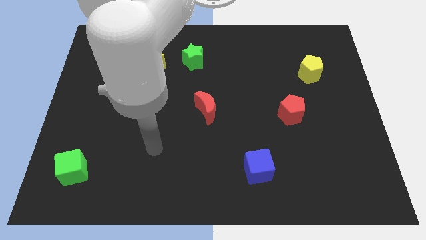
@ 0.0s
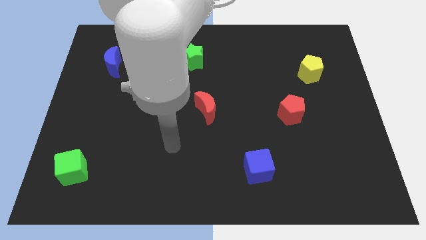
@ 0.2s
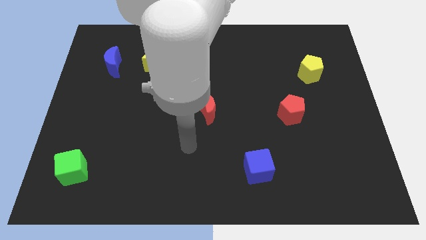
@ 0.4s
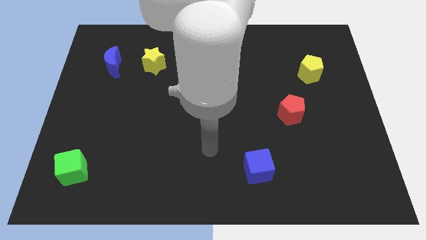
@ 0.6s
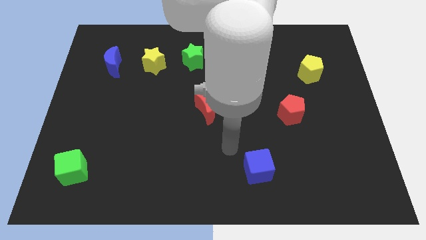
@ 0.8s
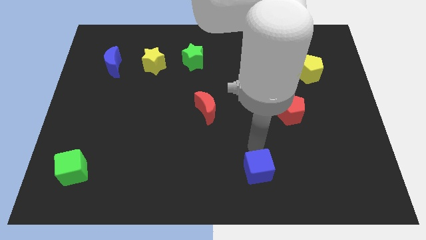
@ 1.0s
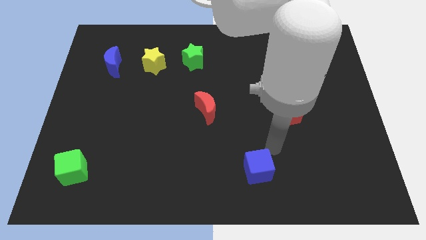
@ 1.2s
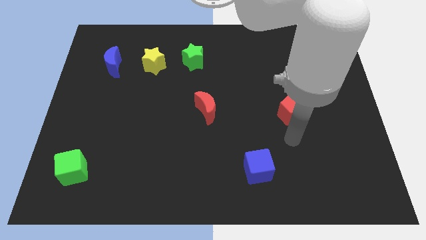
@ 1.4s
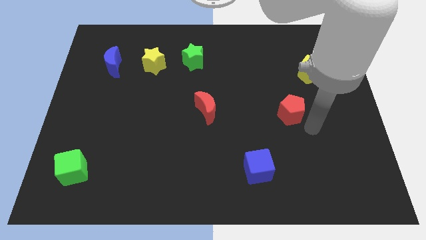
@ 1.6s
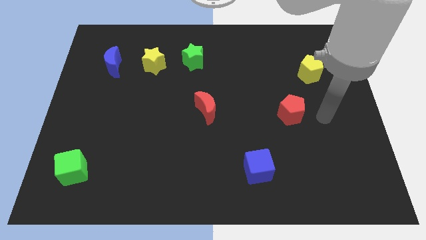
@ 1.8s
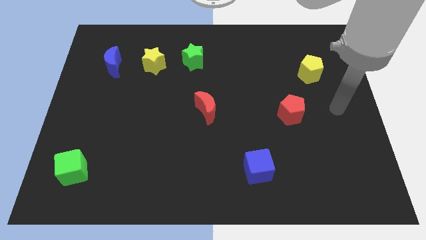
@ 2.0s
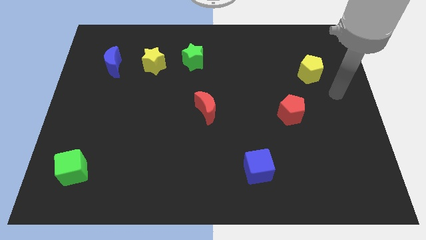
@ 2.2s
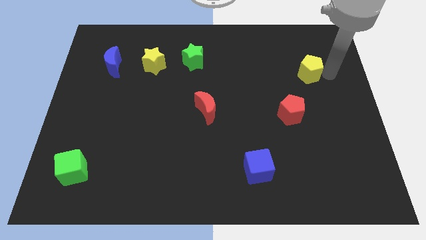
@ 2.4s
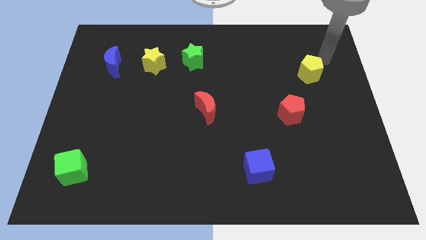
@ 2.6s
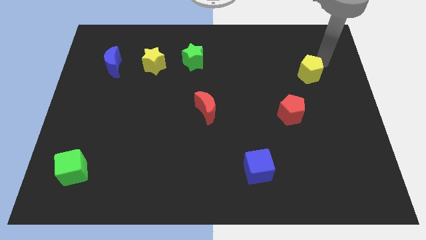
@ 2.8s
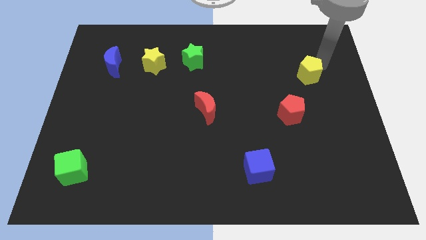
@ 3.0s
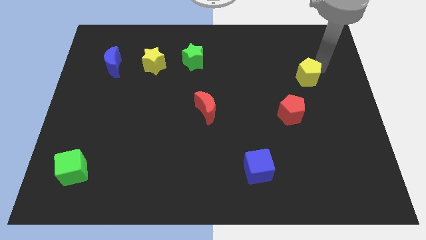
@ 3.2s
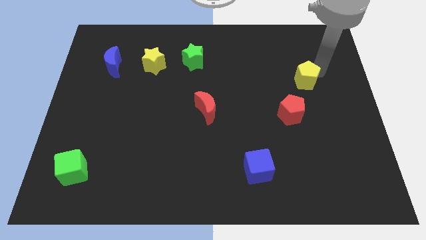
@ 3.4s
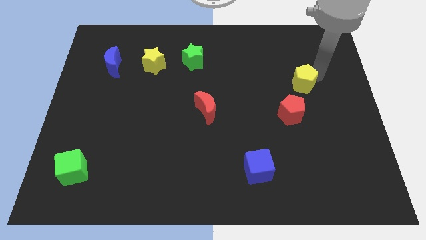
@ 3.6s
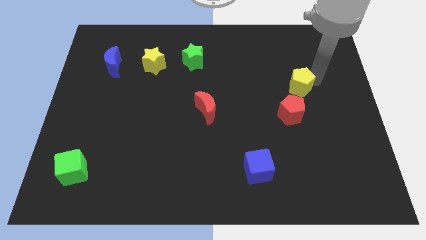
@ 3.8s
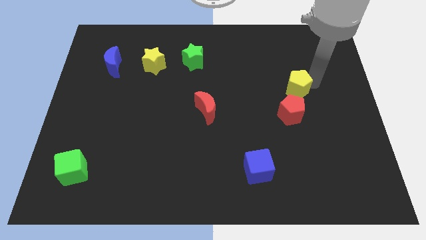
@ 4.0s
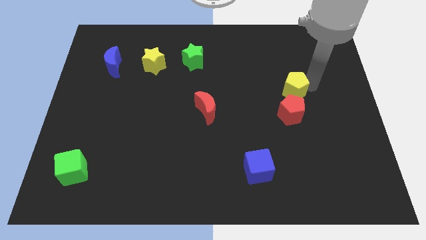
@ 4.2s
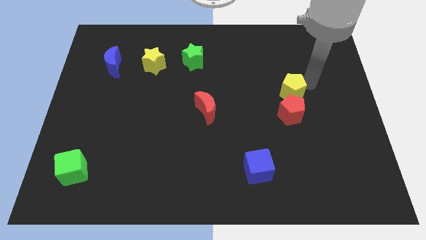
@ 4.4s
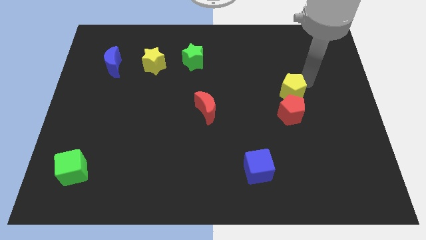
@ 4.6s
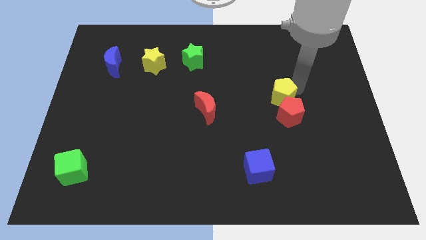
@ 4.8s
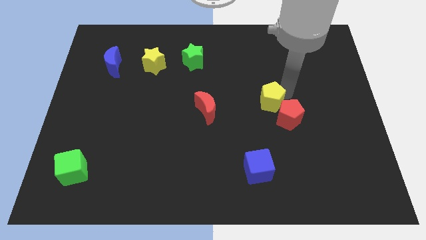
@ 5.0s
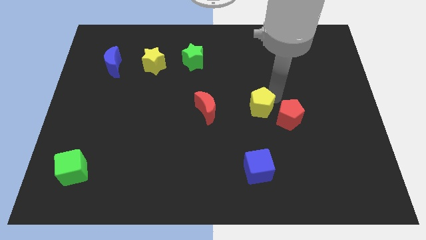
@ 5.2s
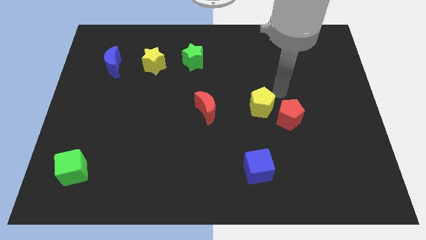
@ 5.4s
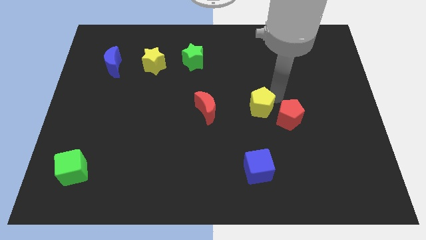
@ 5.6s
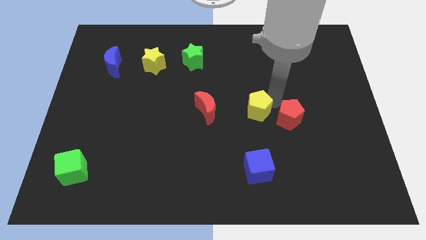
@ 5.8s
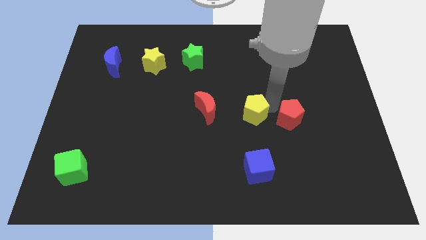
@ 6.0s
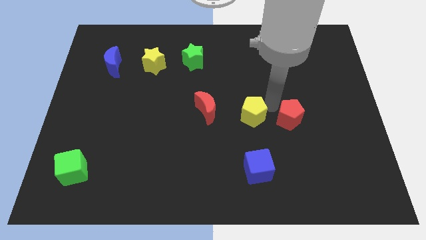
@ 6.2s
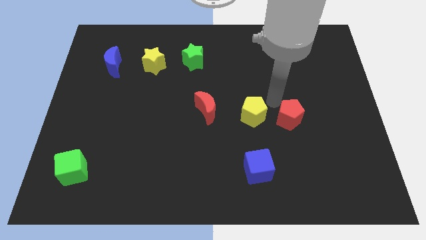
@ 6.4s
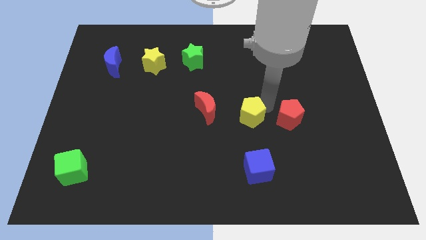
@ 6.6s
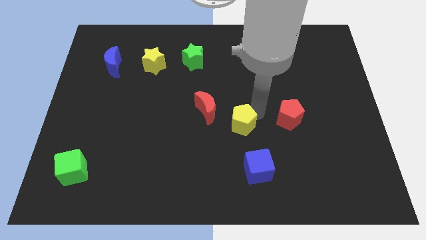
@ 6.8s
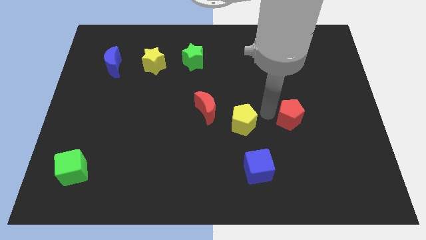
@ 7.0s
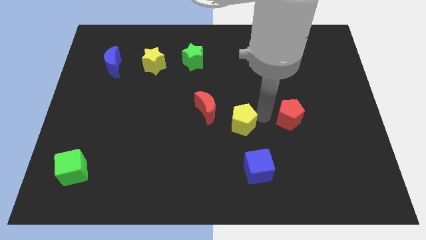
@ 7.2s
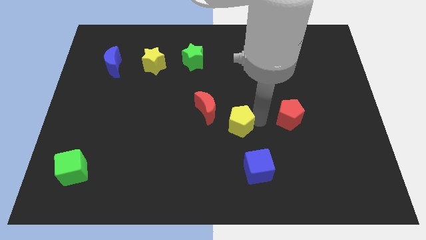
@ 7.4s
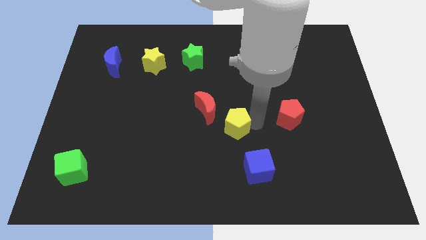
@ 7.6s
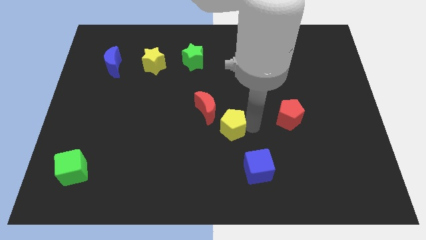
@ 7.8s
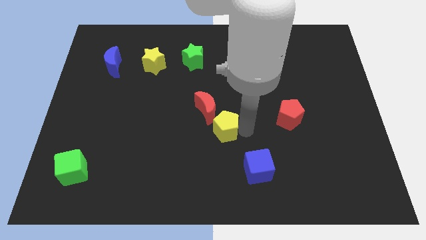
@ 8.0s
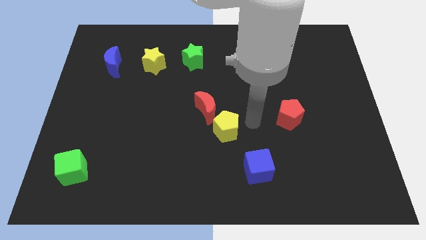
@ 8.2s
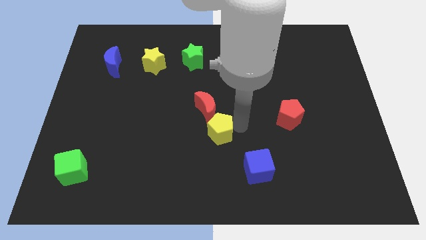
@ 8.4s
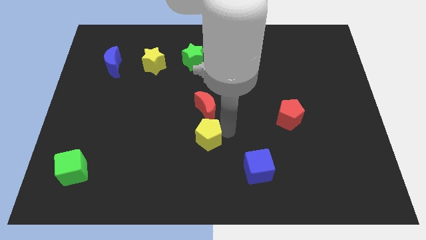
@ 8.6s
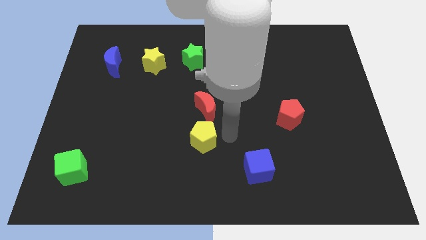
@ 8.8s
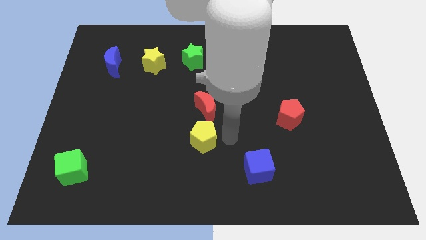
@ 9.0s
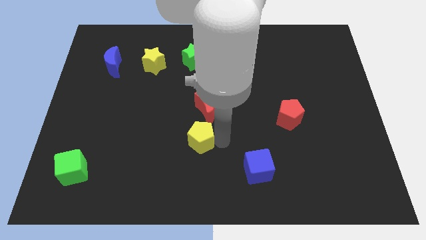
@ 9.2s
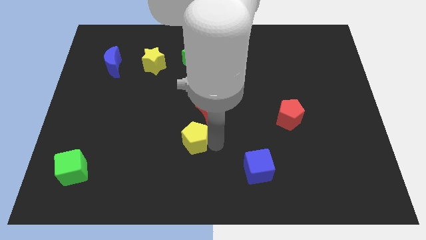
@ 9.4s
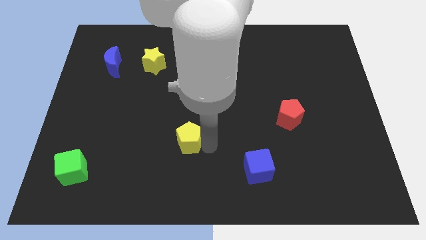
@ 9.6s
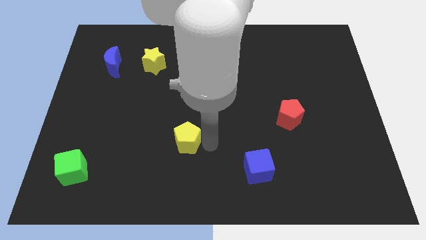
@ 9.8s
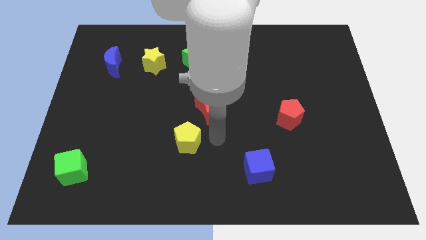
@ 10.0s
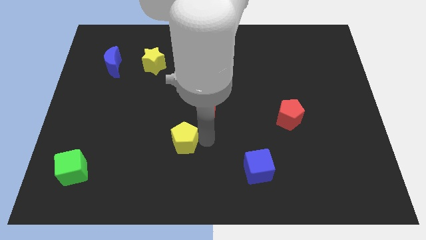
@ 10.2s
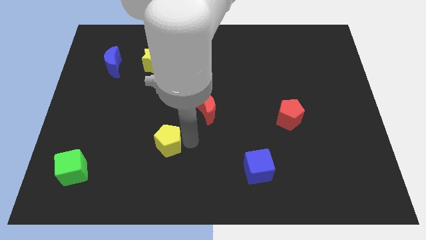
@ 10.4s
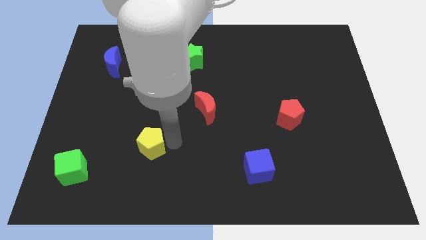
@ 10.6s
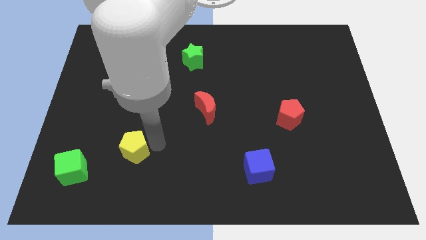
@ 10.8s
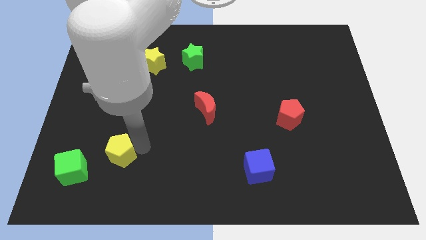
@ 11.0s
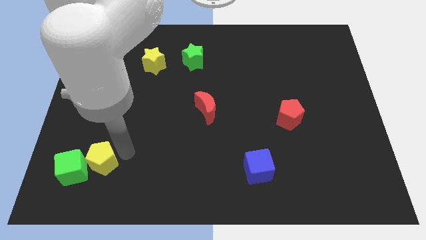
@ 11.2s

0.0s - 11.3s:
push the yellow pentagon to the green cube

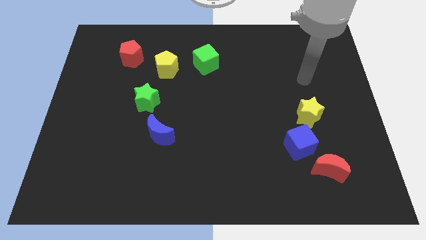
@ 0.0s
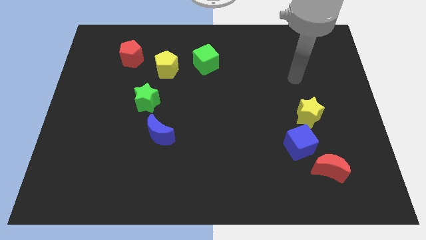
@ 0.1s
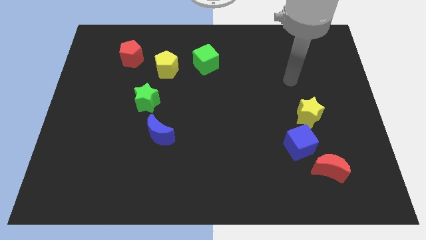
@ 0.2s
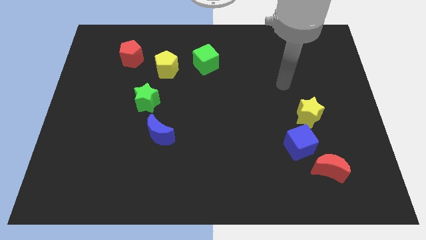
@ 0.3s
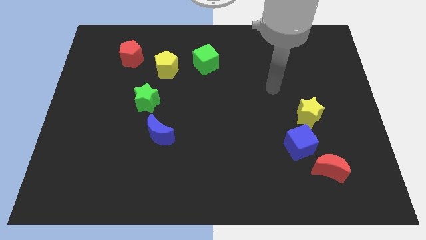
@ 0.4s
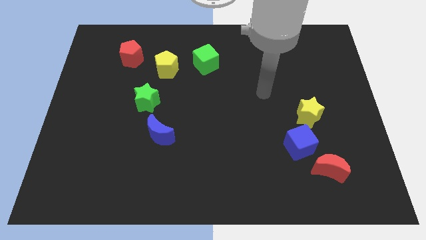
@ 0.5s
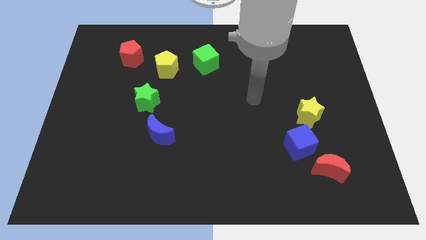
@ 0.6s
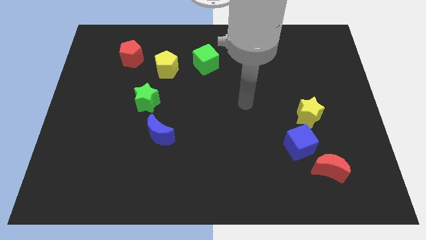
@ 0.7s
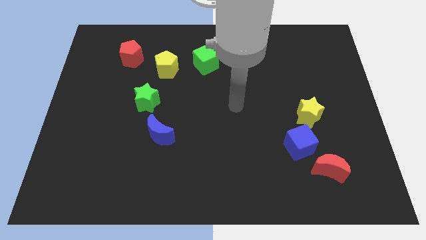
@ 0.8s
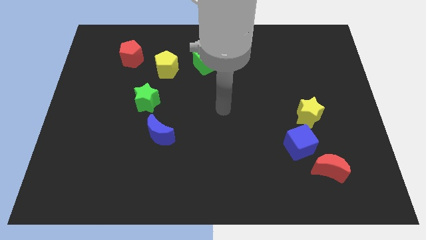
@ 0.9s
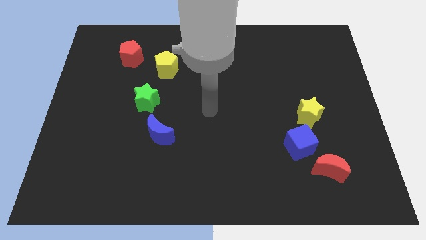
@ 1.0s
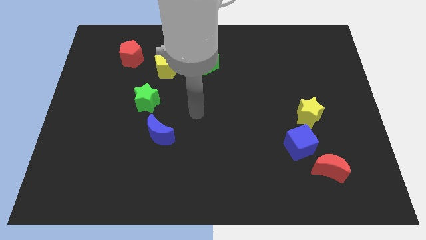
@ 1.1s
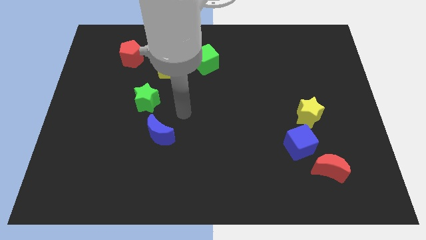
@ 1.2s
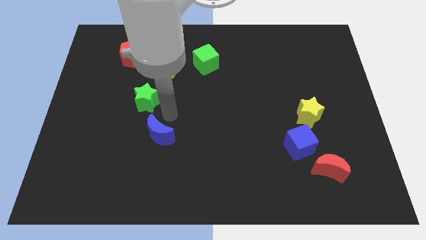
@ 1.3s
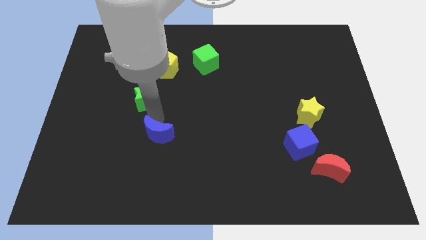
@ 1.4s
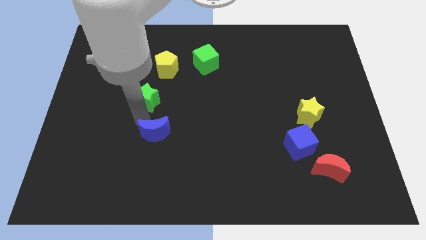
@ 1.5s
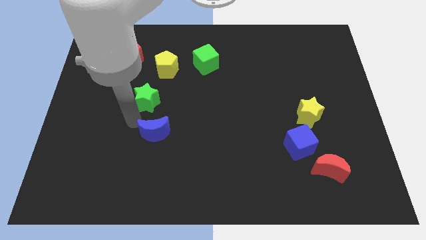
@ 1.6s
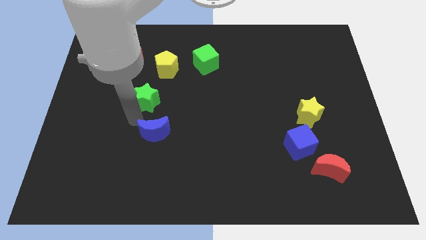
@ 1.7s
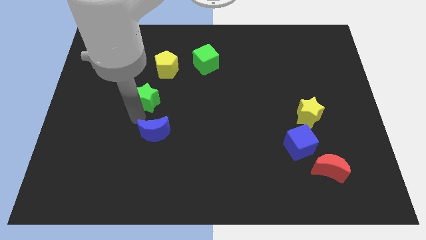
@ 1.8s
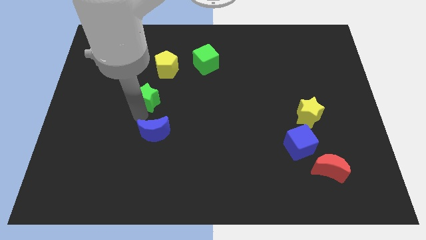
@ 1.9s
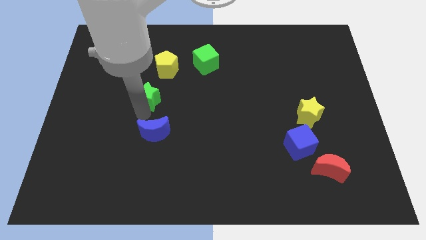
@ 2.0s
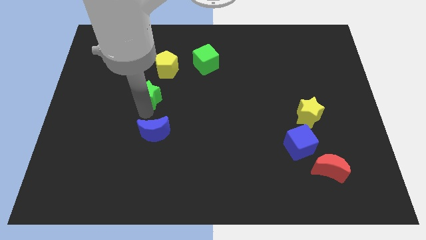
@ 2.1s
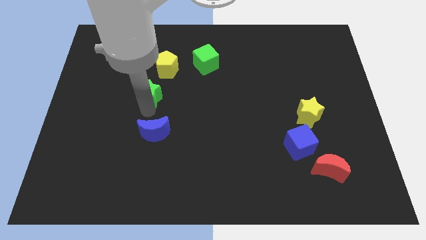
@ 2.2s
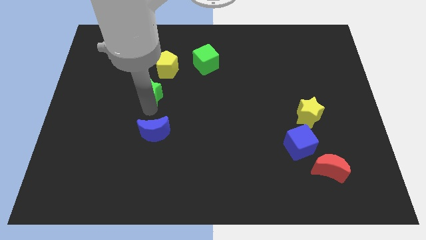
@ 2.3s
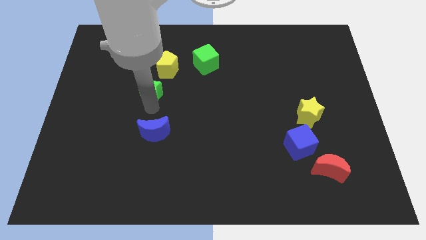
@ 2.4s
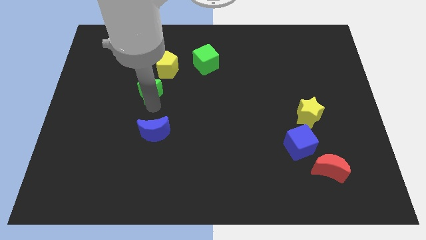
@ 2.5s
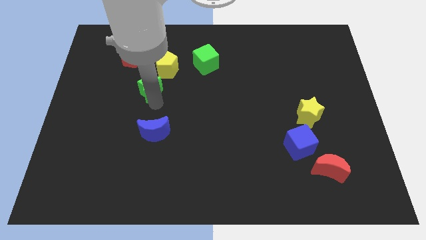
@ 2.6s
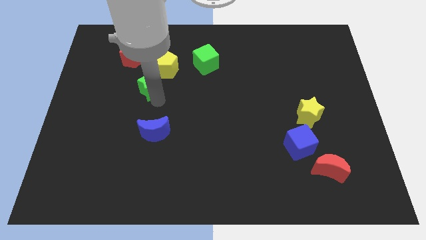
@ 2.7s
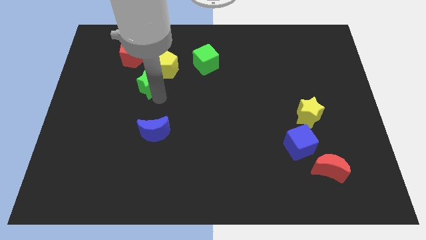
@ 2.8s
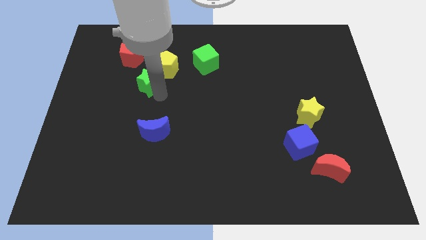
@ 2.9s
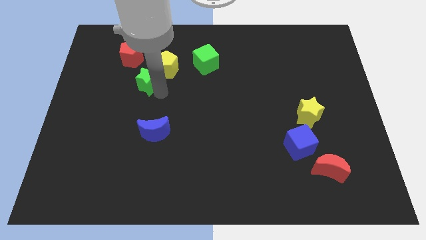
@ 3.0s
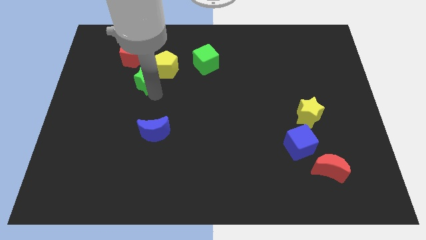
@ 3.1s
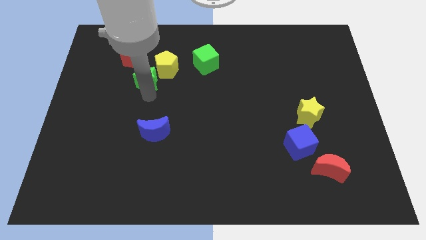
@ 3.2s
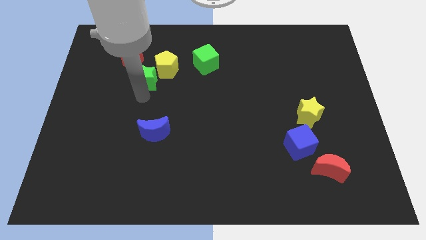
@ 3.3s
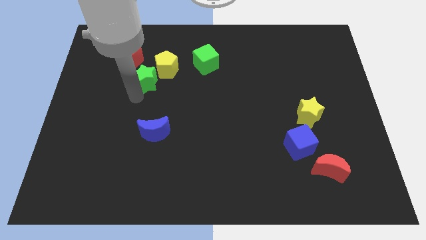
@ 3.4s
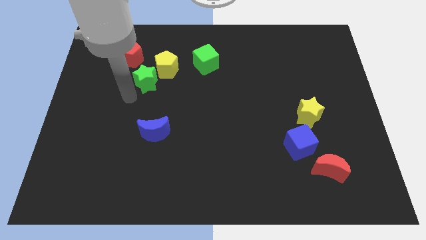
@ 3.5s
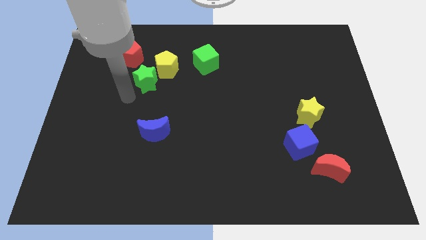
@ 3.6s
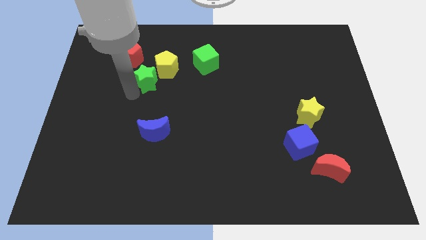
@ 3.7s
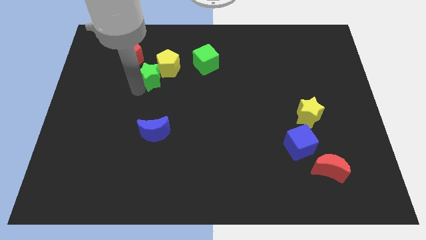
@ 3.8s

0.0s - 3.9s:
slide the green star next to the yellow pentagon
